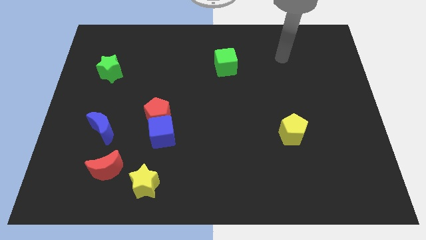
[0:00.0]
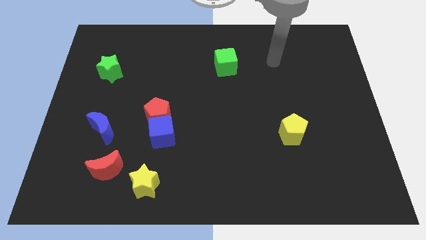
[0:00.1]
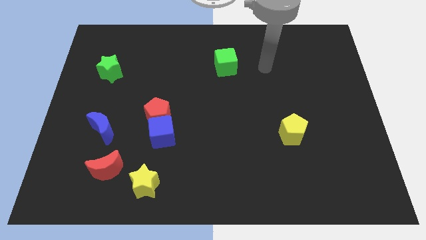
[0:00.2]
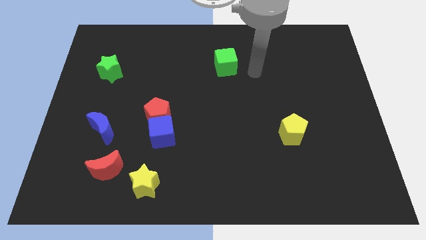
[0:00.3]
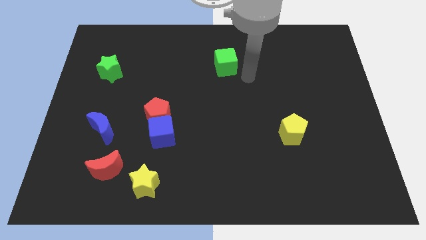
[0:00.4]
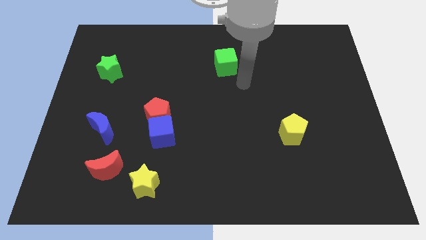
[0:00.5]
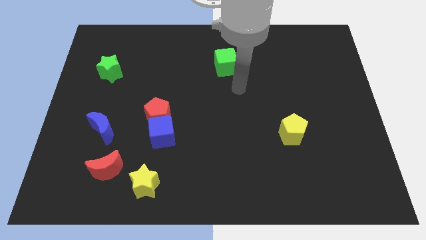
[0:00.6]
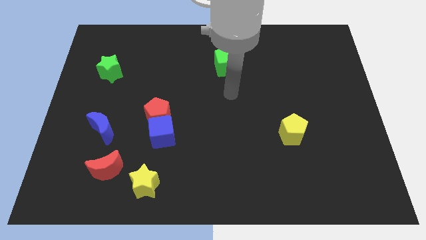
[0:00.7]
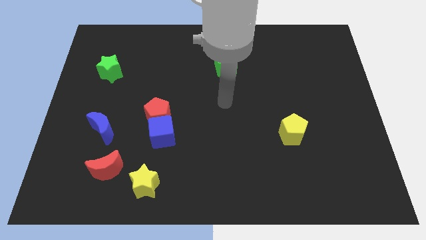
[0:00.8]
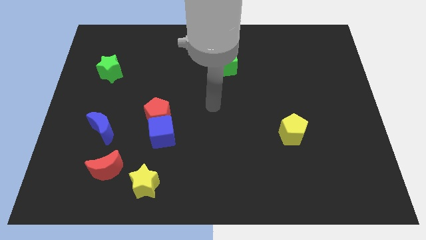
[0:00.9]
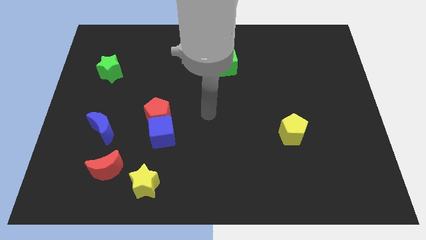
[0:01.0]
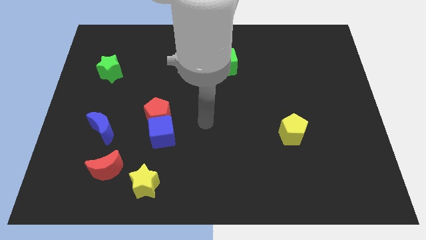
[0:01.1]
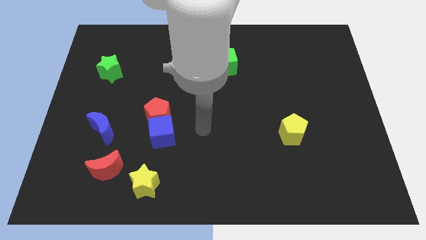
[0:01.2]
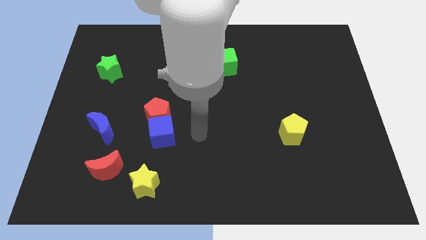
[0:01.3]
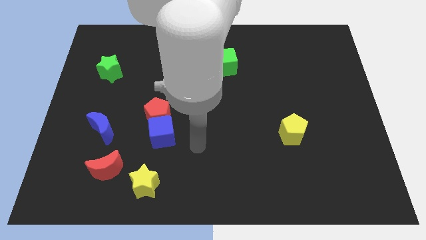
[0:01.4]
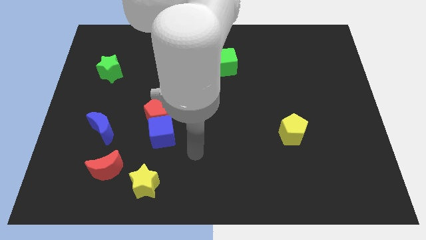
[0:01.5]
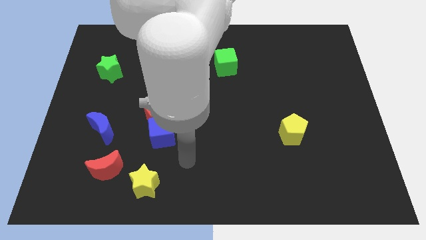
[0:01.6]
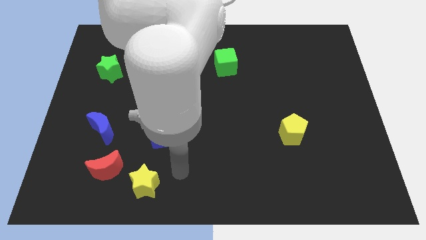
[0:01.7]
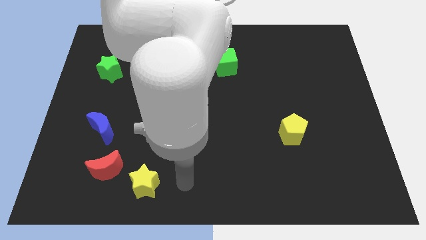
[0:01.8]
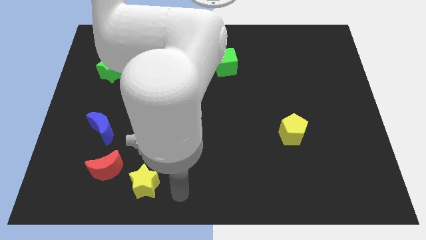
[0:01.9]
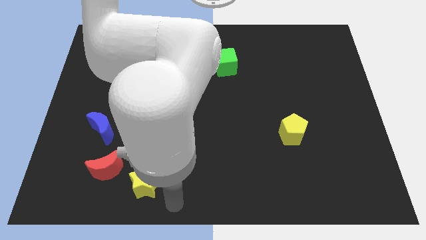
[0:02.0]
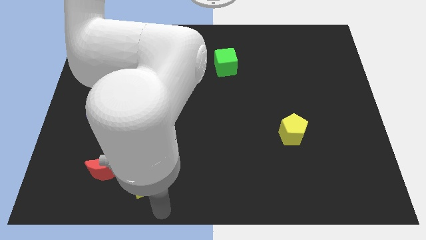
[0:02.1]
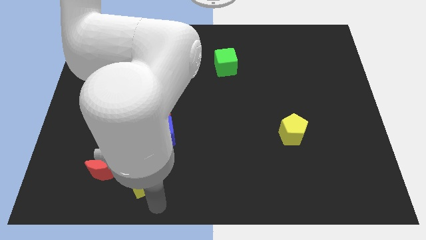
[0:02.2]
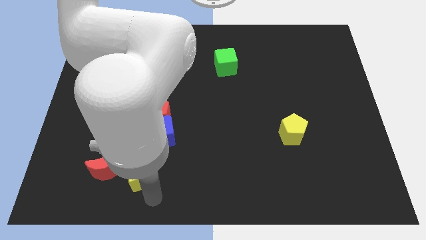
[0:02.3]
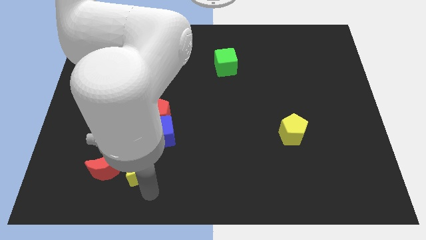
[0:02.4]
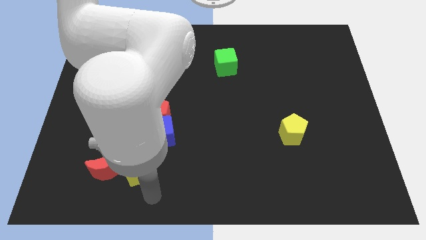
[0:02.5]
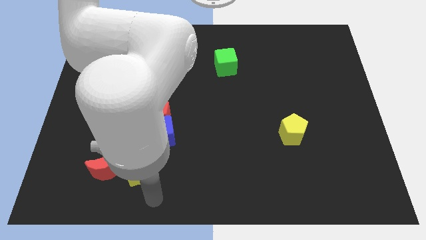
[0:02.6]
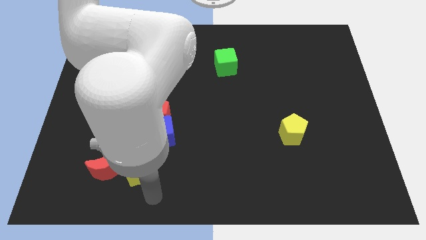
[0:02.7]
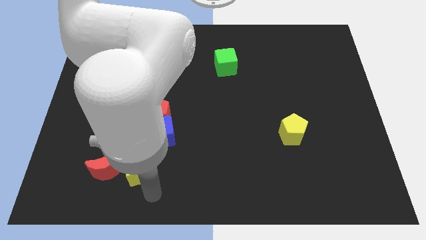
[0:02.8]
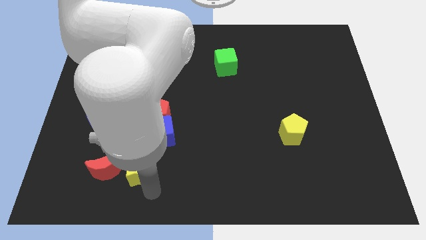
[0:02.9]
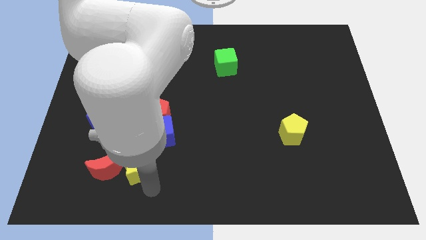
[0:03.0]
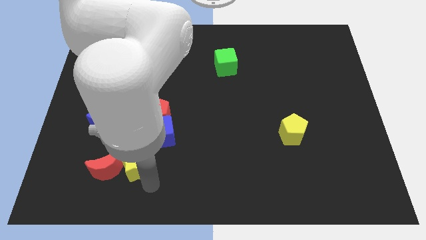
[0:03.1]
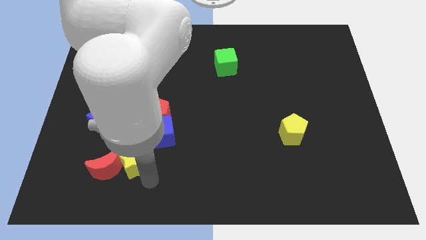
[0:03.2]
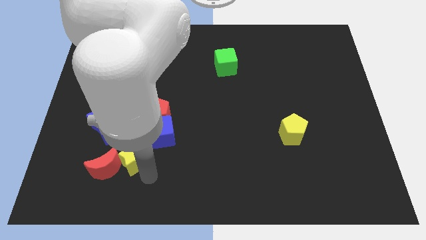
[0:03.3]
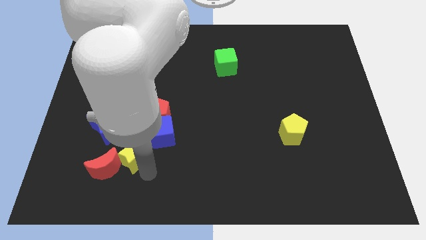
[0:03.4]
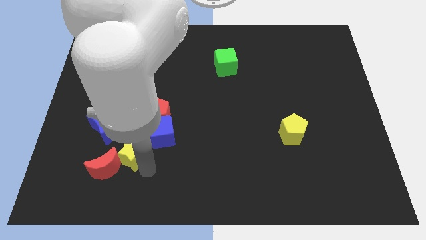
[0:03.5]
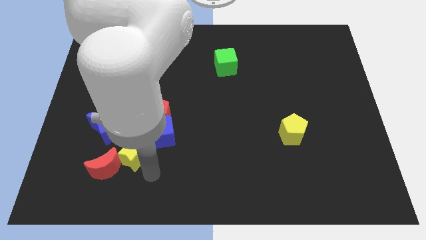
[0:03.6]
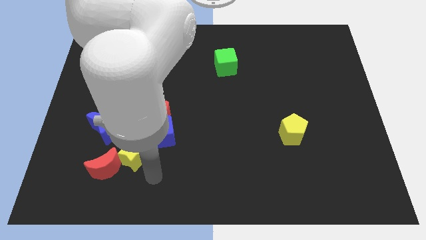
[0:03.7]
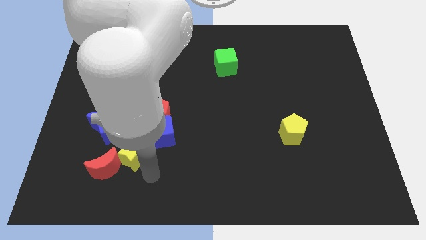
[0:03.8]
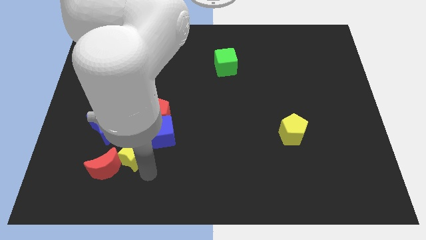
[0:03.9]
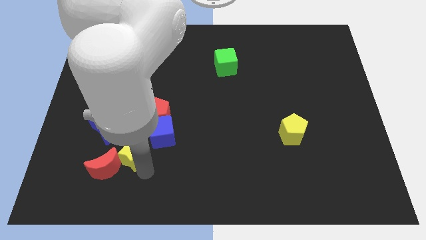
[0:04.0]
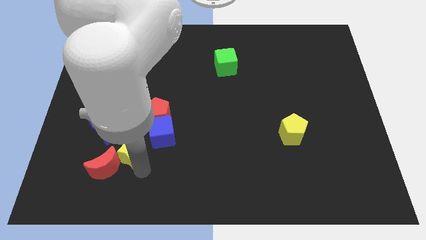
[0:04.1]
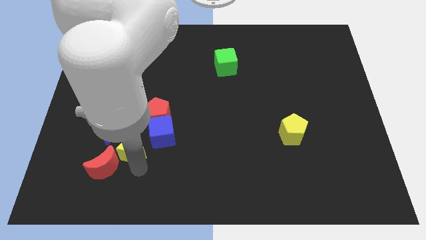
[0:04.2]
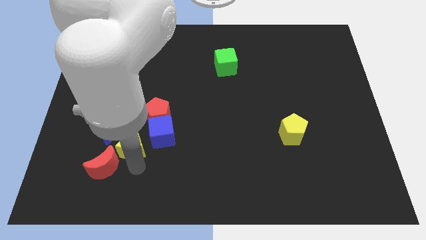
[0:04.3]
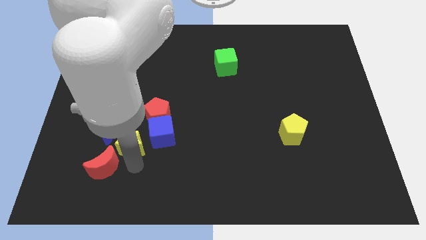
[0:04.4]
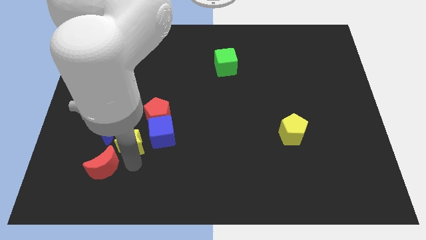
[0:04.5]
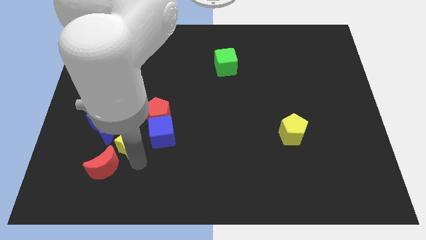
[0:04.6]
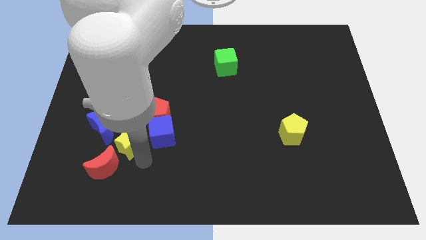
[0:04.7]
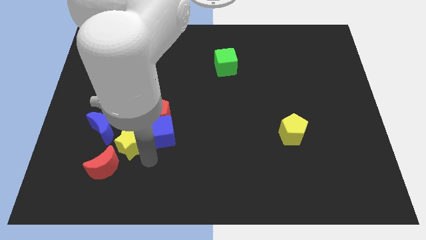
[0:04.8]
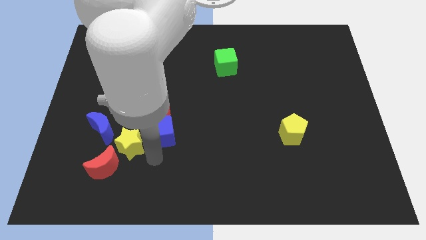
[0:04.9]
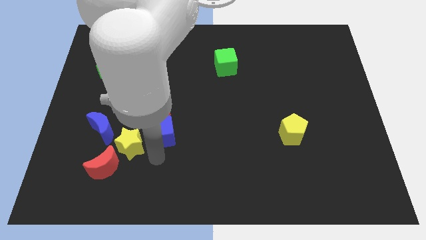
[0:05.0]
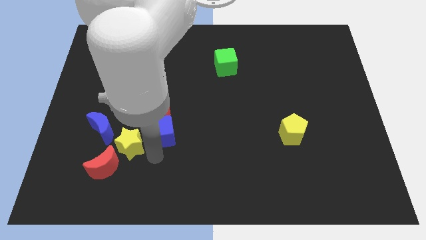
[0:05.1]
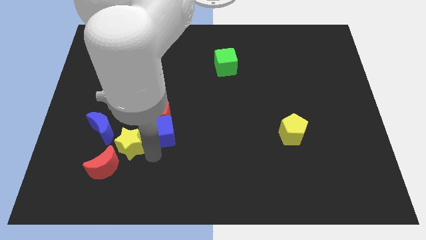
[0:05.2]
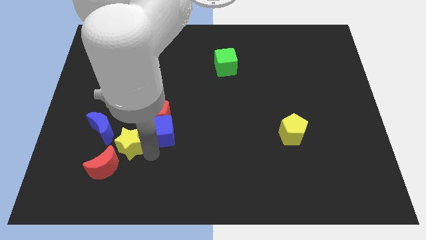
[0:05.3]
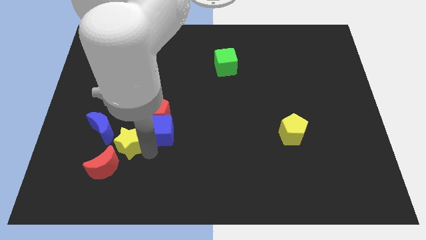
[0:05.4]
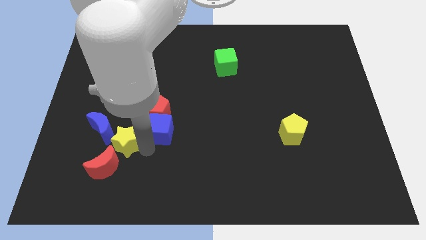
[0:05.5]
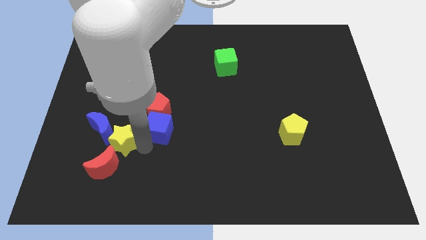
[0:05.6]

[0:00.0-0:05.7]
slide the yellow star to the blue moon

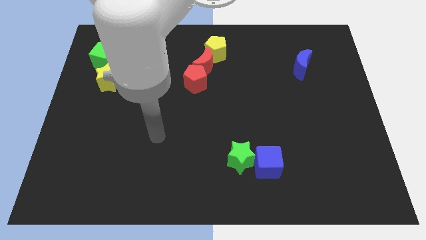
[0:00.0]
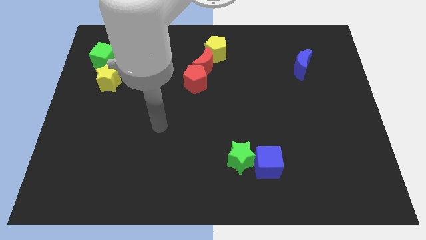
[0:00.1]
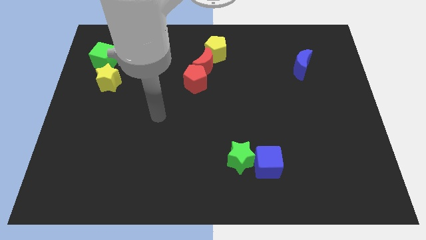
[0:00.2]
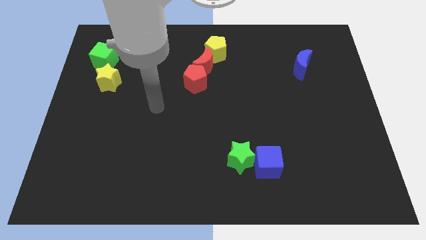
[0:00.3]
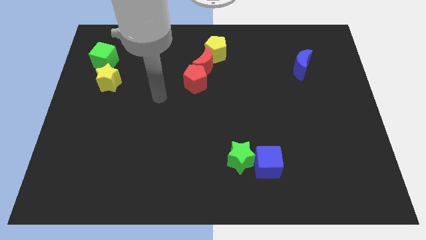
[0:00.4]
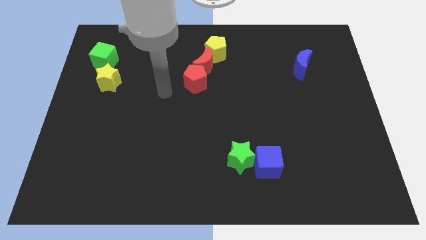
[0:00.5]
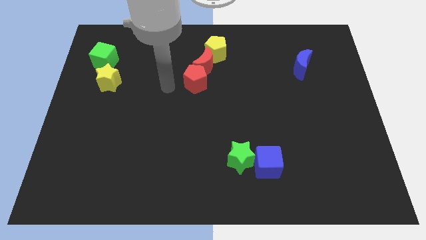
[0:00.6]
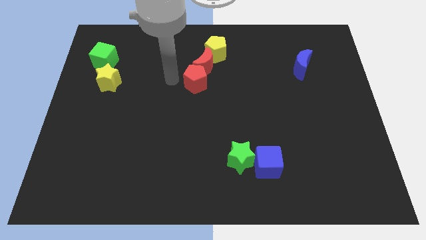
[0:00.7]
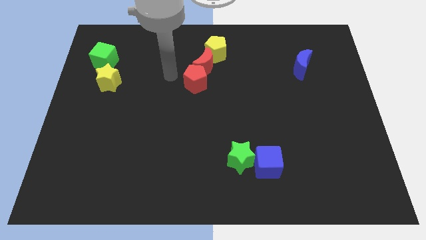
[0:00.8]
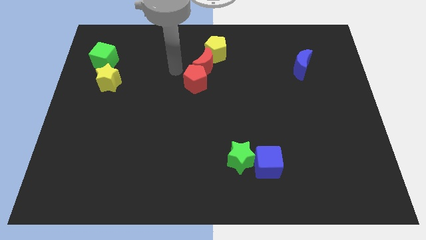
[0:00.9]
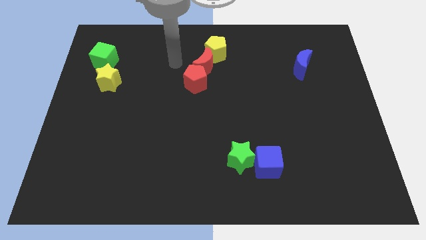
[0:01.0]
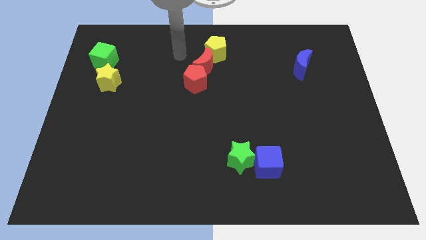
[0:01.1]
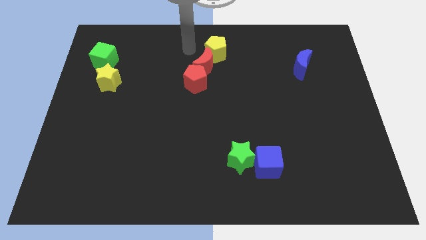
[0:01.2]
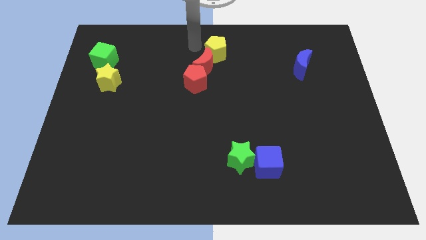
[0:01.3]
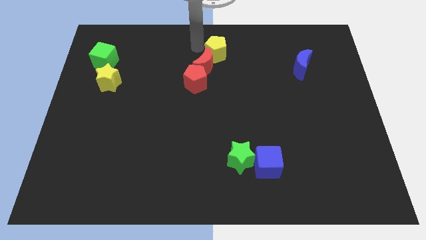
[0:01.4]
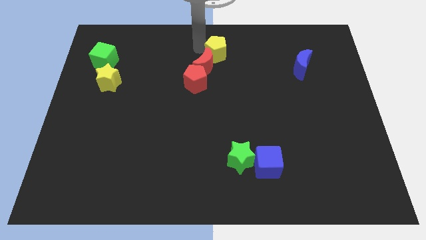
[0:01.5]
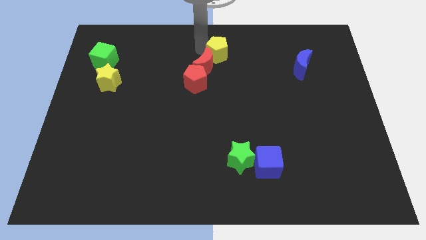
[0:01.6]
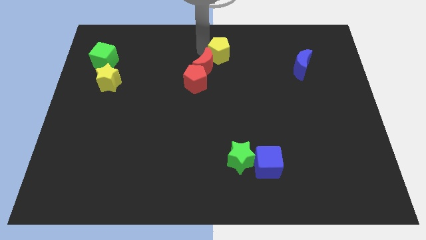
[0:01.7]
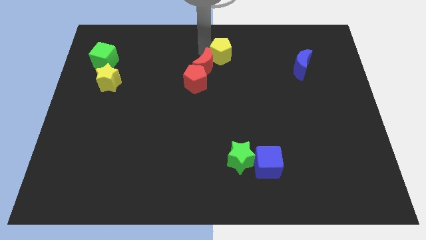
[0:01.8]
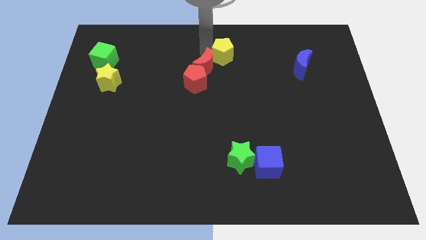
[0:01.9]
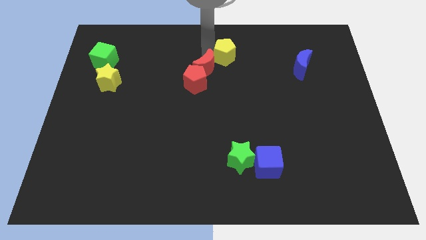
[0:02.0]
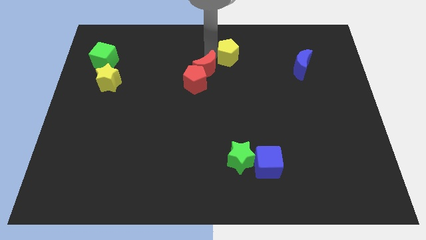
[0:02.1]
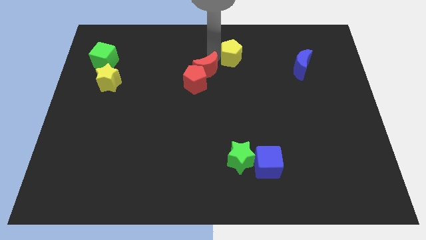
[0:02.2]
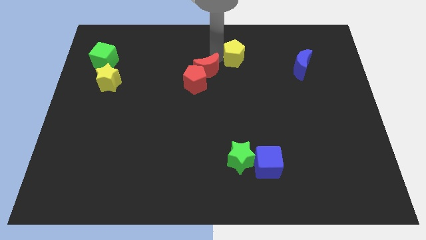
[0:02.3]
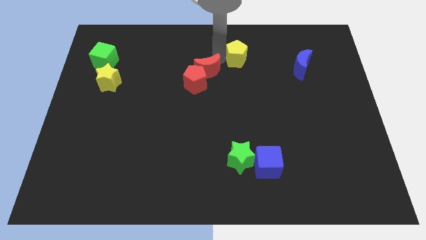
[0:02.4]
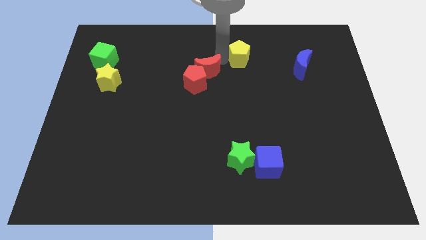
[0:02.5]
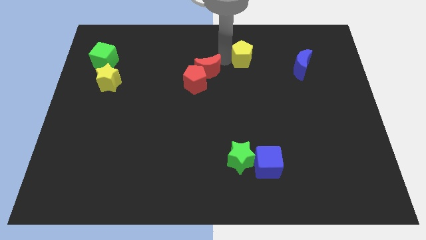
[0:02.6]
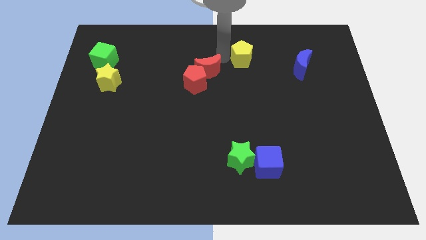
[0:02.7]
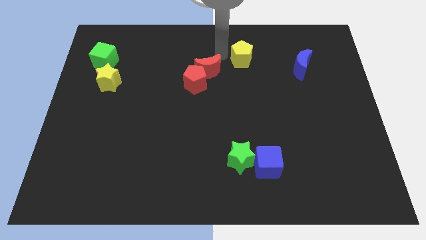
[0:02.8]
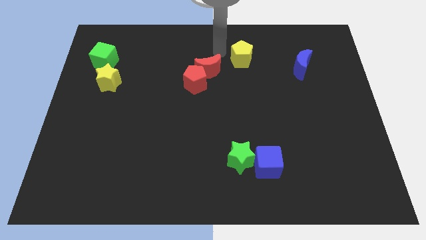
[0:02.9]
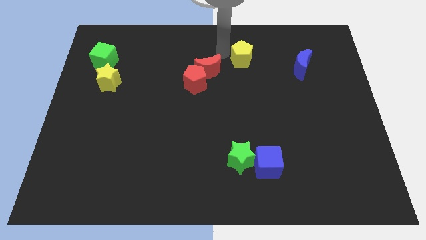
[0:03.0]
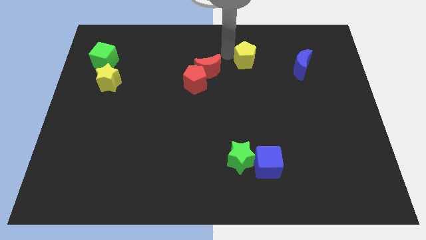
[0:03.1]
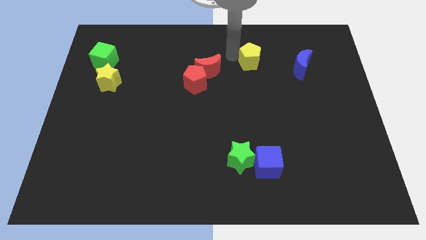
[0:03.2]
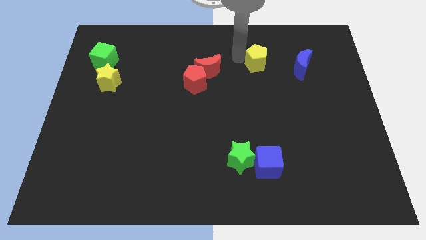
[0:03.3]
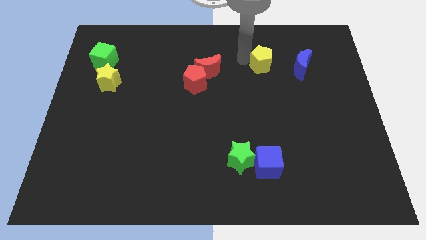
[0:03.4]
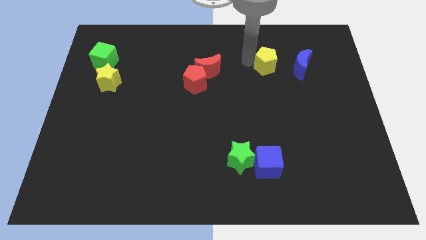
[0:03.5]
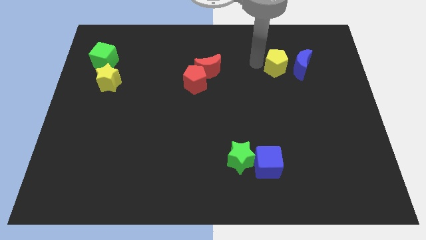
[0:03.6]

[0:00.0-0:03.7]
move the yellow pentagon close to the blue moon
